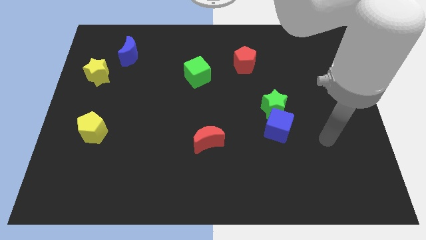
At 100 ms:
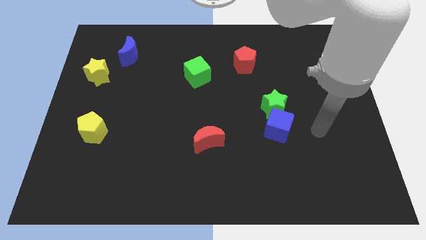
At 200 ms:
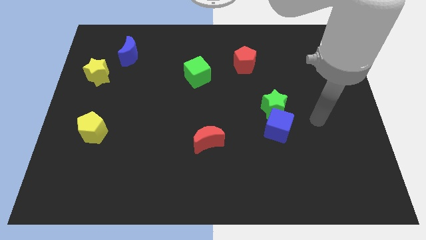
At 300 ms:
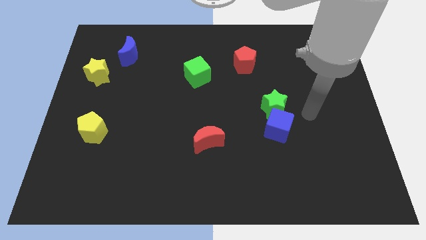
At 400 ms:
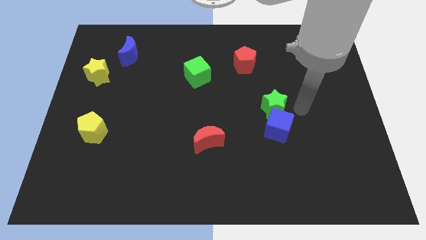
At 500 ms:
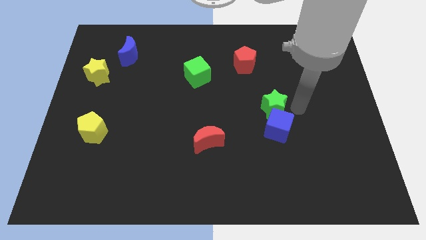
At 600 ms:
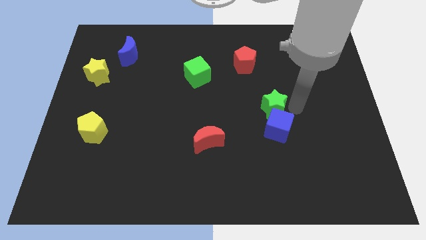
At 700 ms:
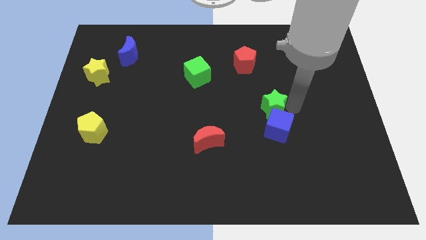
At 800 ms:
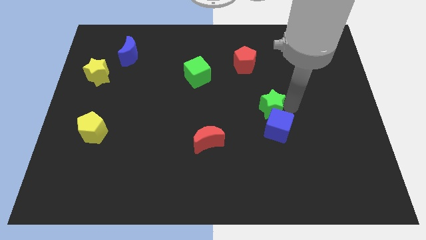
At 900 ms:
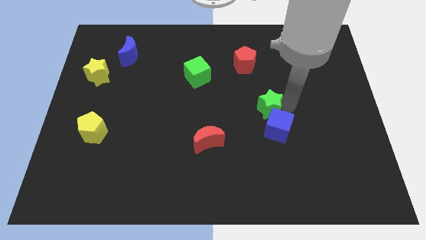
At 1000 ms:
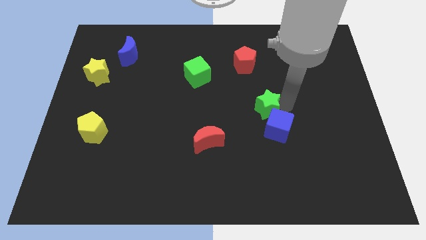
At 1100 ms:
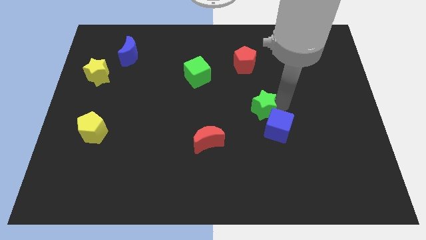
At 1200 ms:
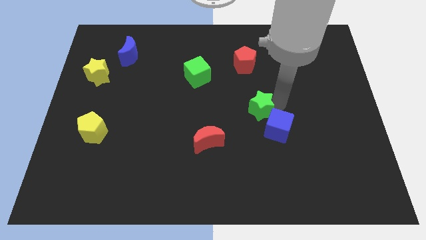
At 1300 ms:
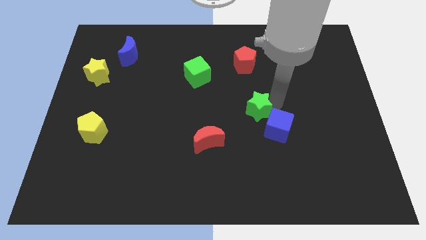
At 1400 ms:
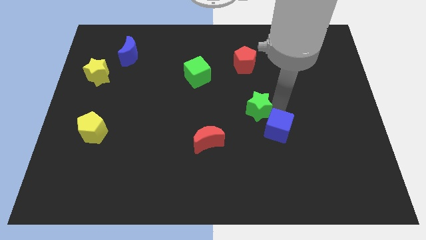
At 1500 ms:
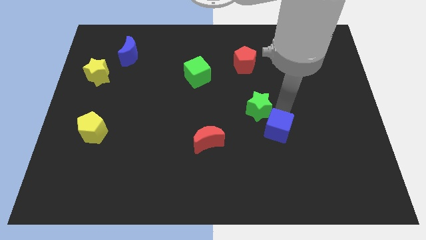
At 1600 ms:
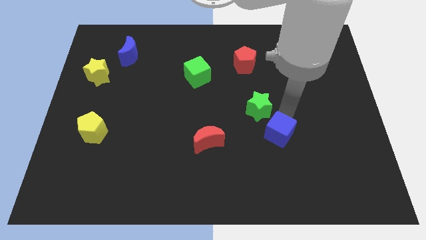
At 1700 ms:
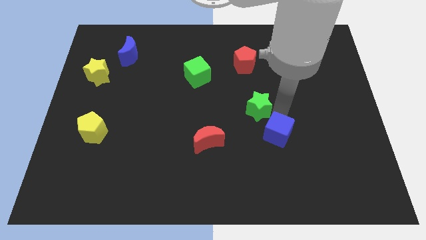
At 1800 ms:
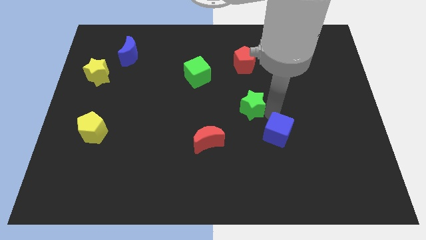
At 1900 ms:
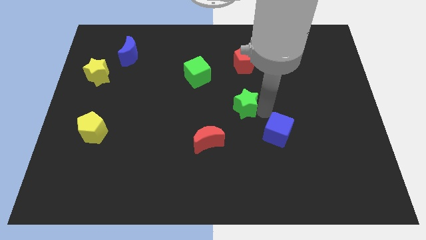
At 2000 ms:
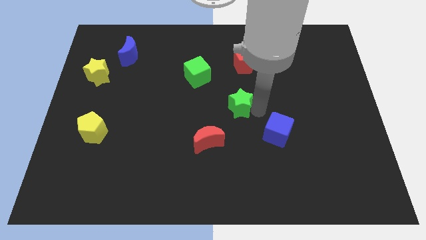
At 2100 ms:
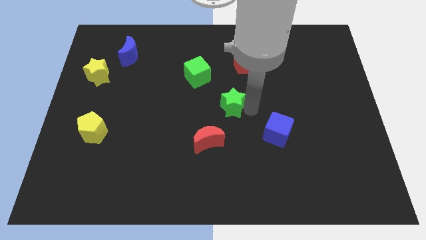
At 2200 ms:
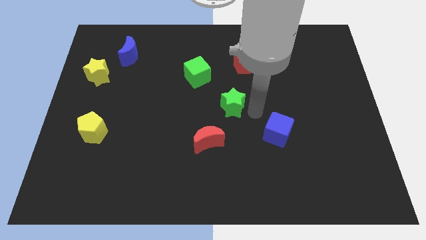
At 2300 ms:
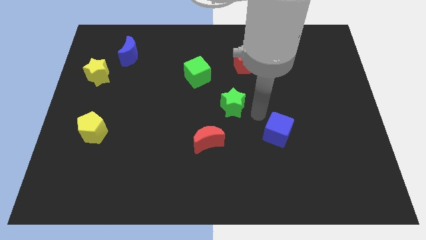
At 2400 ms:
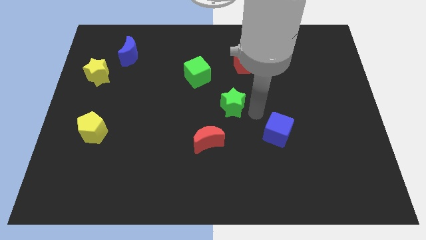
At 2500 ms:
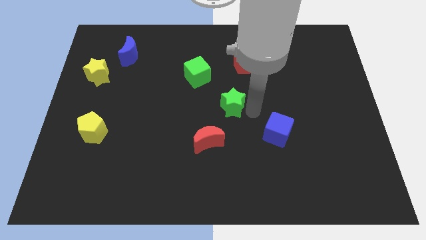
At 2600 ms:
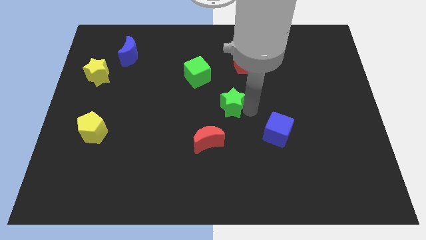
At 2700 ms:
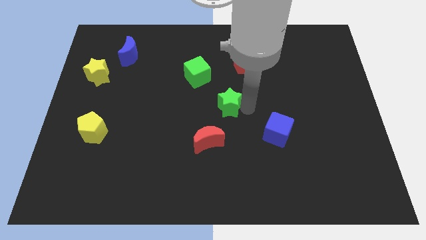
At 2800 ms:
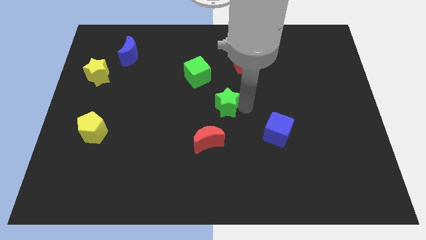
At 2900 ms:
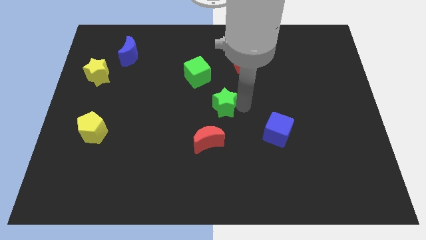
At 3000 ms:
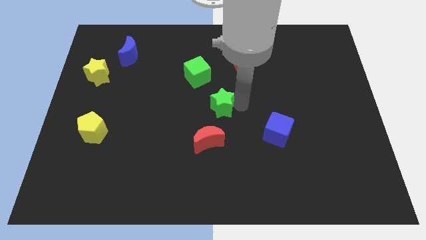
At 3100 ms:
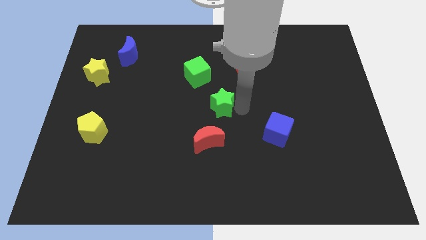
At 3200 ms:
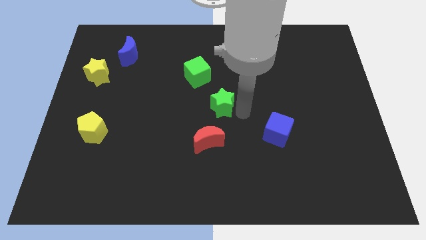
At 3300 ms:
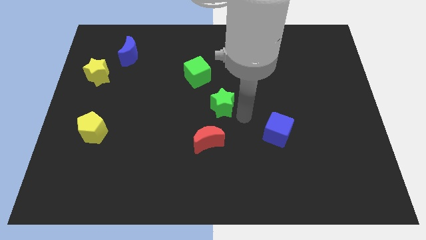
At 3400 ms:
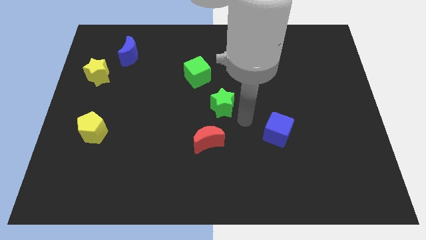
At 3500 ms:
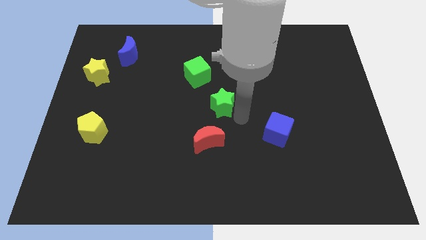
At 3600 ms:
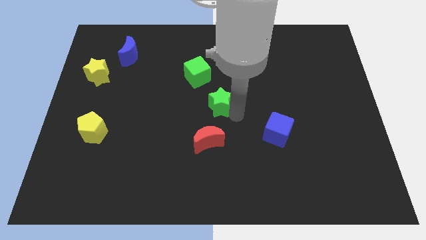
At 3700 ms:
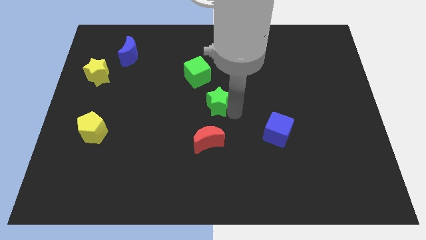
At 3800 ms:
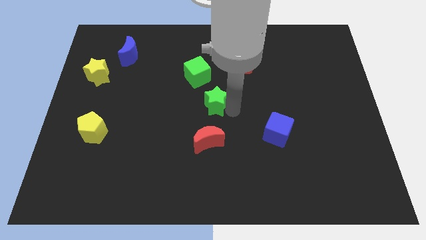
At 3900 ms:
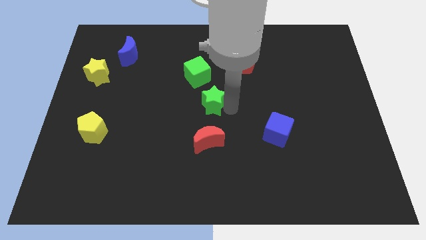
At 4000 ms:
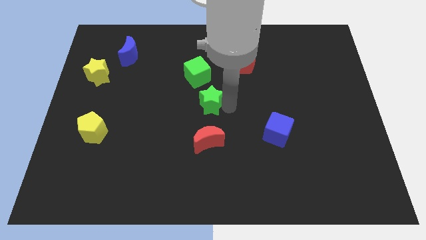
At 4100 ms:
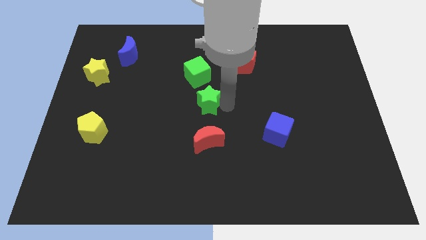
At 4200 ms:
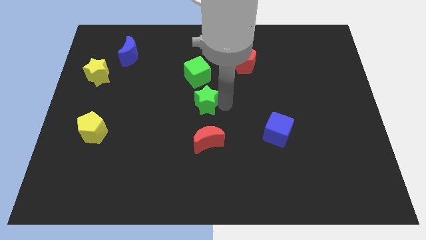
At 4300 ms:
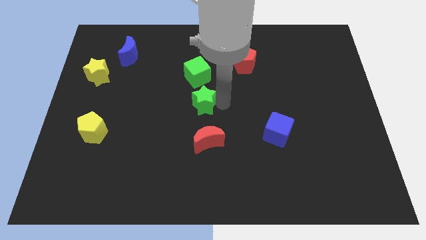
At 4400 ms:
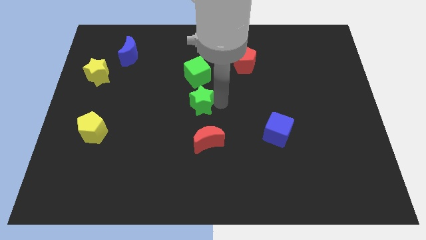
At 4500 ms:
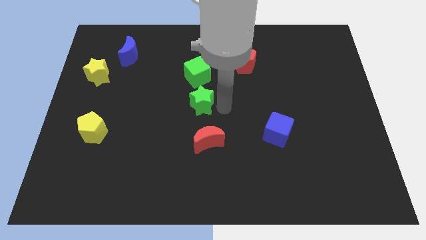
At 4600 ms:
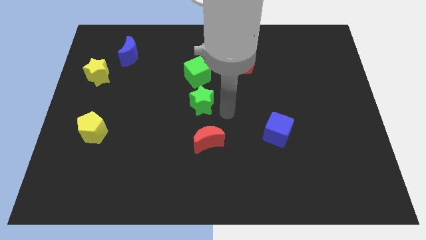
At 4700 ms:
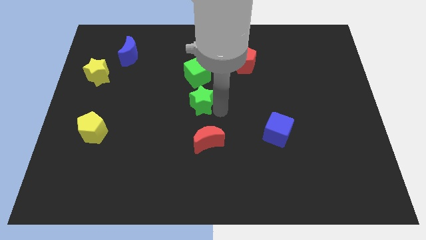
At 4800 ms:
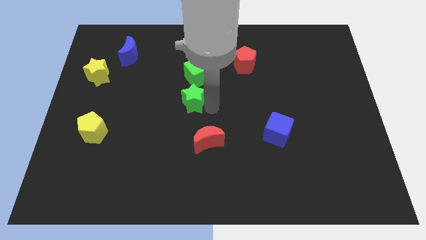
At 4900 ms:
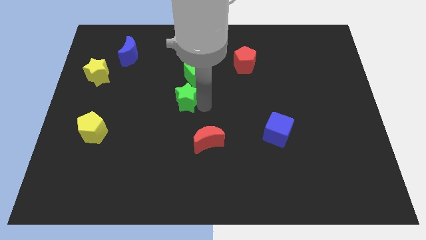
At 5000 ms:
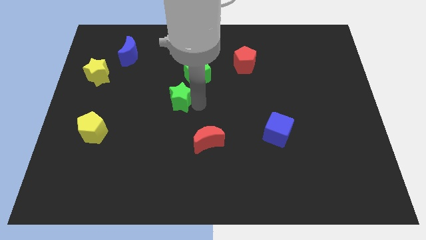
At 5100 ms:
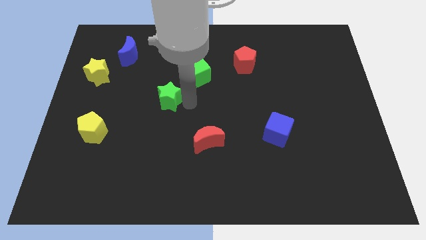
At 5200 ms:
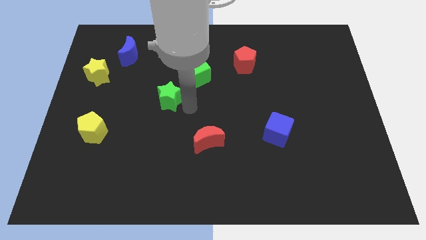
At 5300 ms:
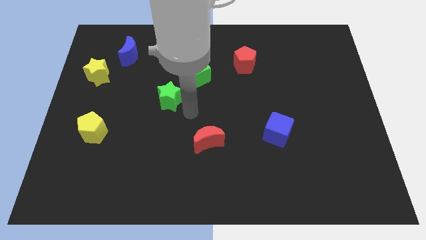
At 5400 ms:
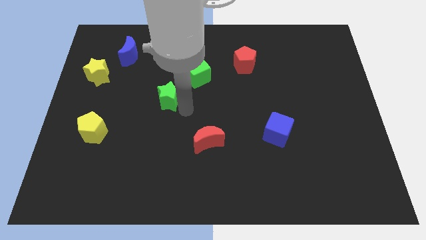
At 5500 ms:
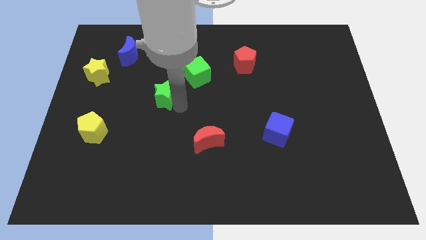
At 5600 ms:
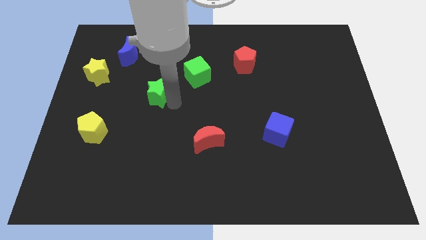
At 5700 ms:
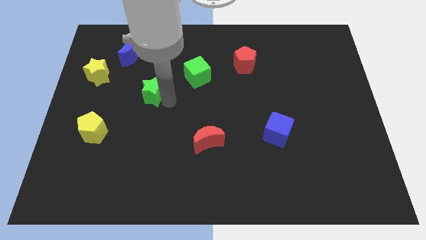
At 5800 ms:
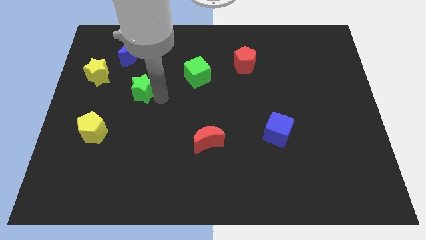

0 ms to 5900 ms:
slide the green star to the bottom side of the blue moon

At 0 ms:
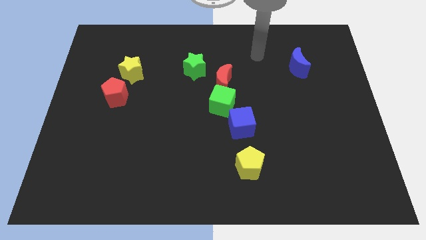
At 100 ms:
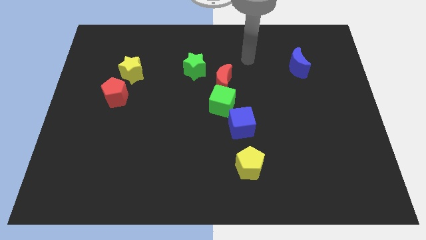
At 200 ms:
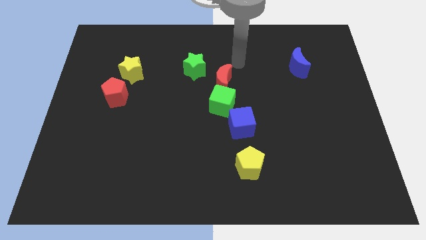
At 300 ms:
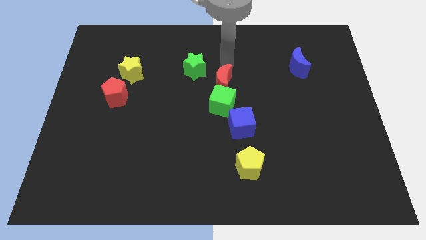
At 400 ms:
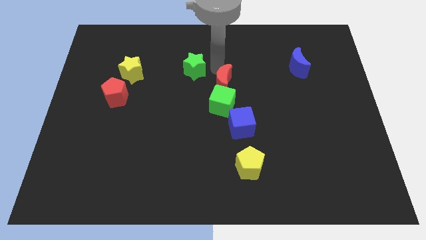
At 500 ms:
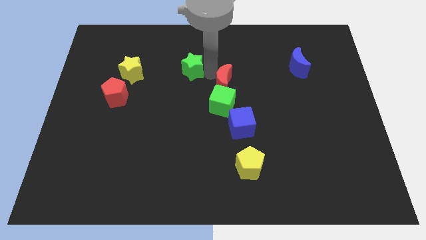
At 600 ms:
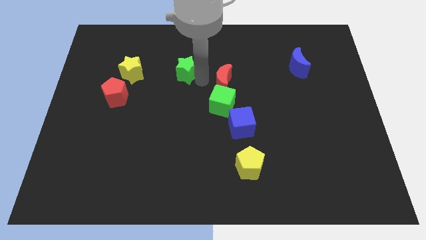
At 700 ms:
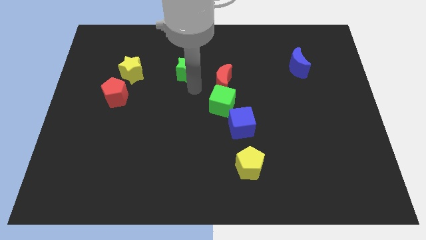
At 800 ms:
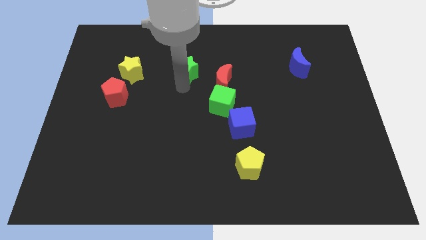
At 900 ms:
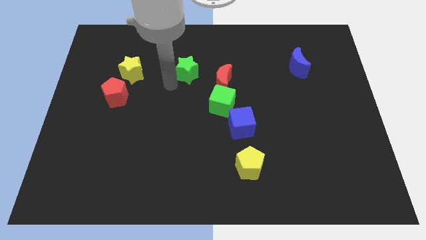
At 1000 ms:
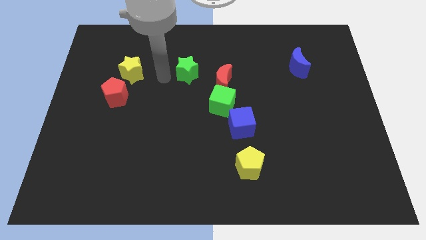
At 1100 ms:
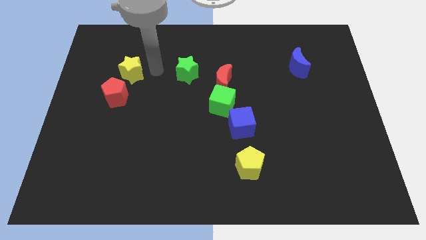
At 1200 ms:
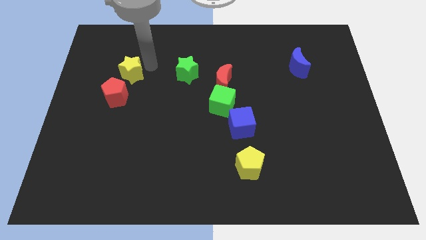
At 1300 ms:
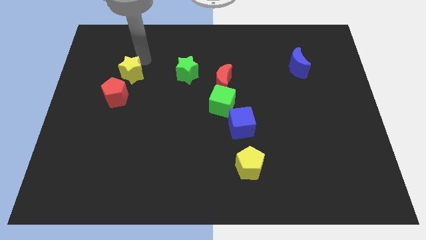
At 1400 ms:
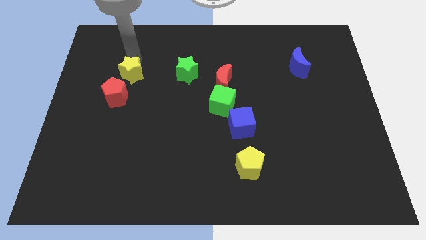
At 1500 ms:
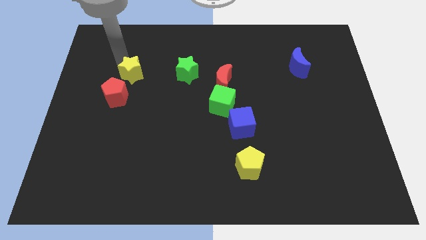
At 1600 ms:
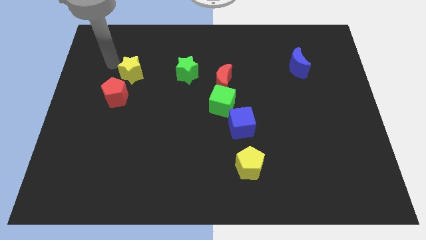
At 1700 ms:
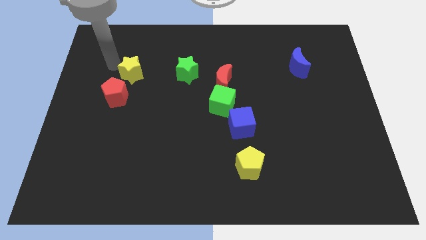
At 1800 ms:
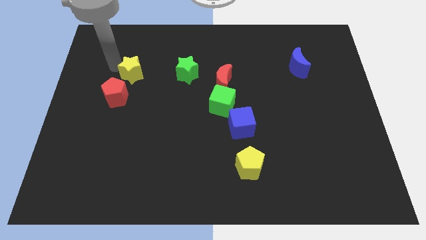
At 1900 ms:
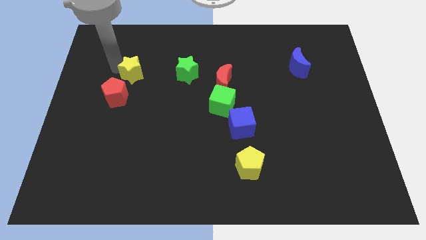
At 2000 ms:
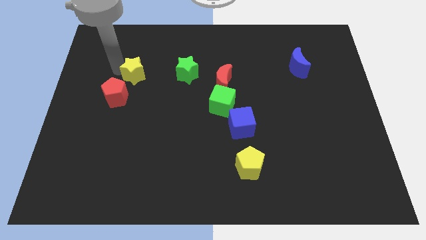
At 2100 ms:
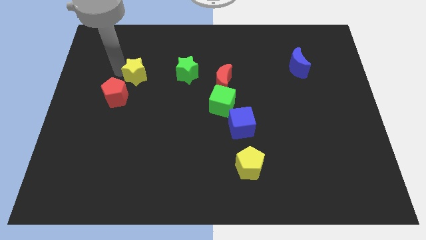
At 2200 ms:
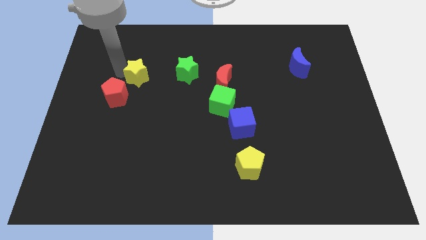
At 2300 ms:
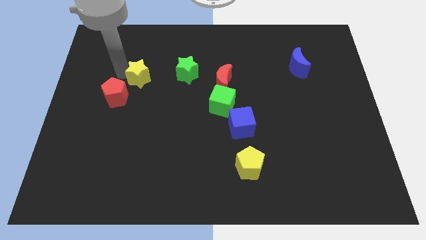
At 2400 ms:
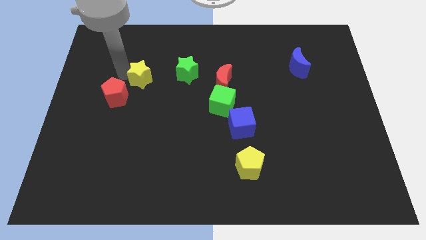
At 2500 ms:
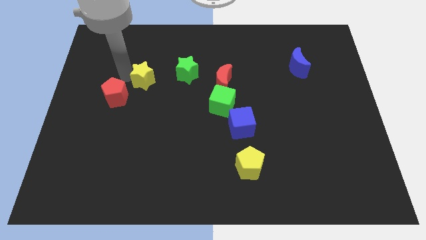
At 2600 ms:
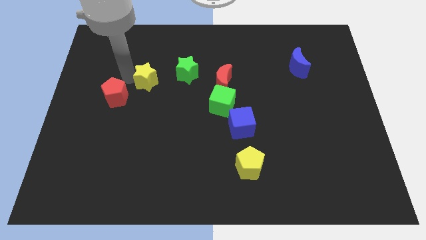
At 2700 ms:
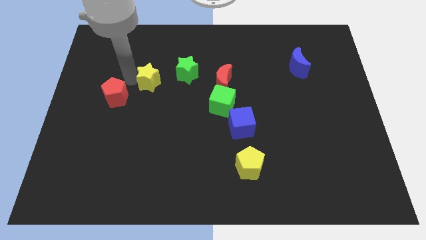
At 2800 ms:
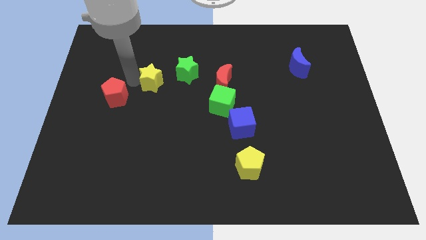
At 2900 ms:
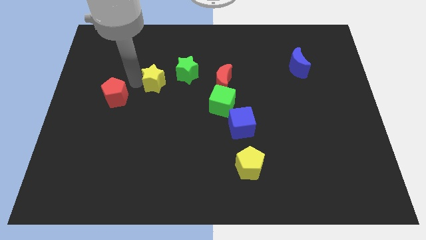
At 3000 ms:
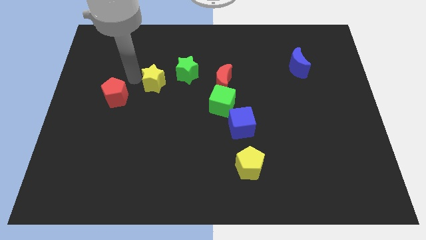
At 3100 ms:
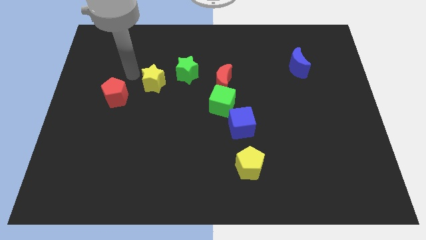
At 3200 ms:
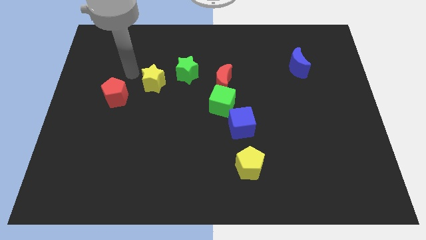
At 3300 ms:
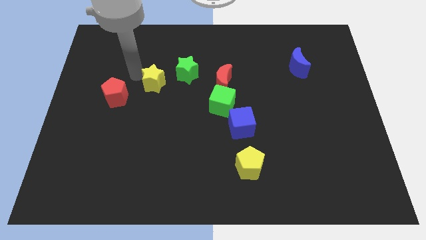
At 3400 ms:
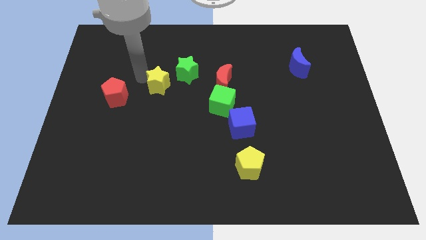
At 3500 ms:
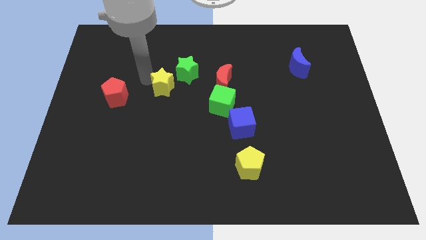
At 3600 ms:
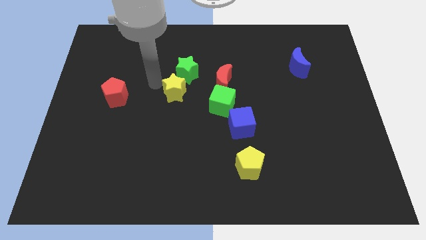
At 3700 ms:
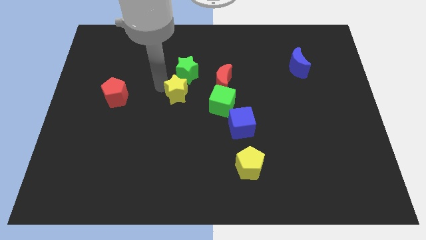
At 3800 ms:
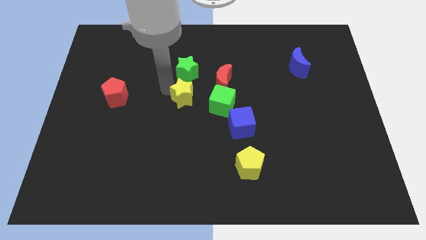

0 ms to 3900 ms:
slide the yellow star to the bottom left of the red moon
